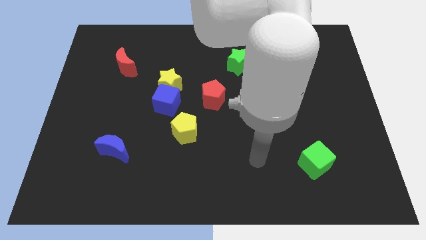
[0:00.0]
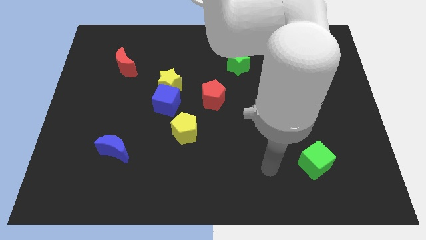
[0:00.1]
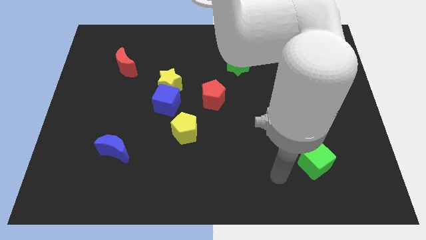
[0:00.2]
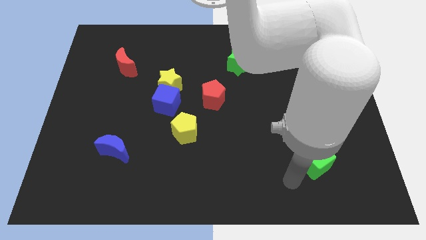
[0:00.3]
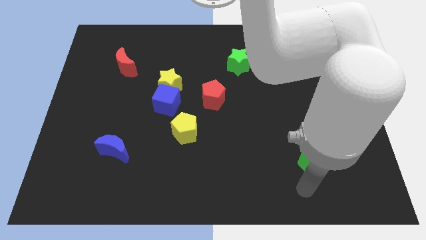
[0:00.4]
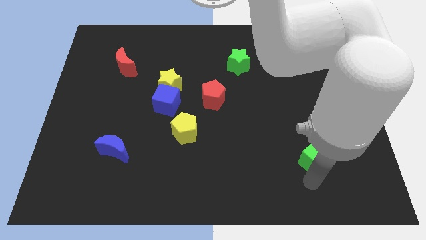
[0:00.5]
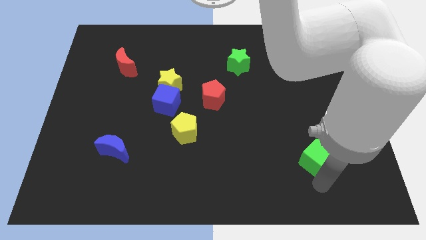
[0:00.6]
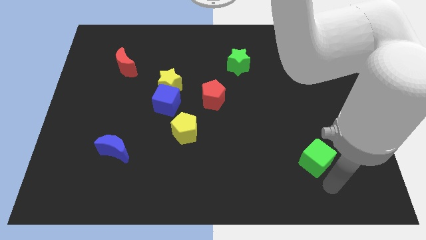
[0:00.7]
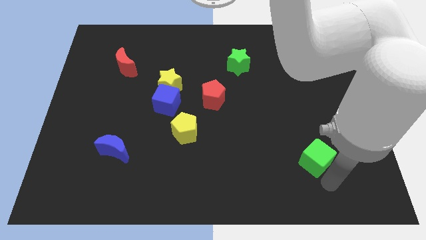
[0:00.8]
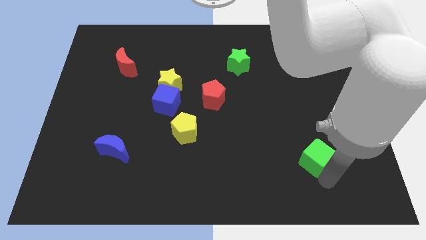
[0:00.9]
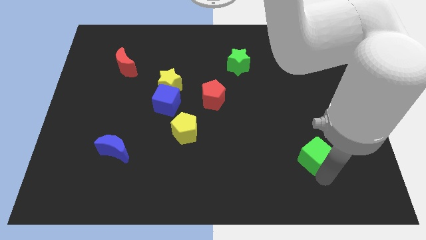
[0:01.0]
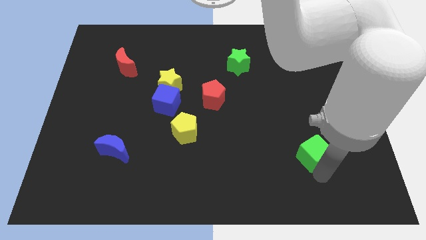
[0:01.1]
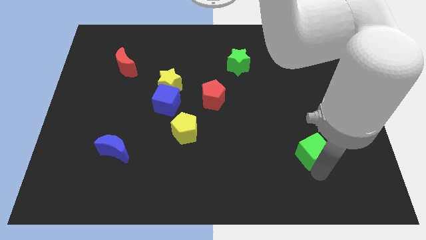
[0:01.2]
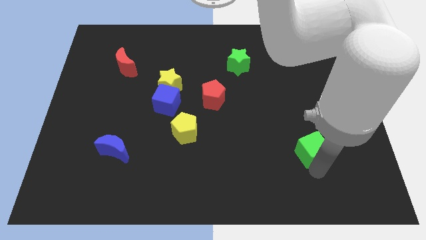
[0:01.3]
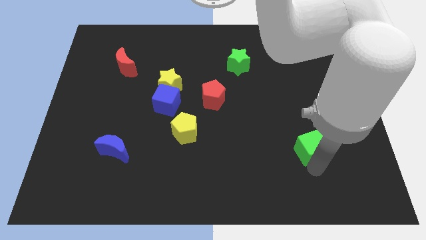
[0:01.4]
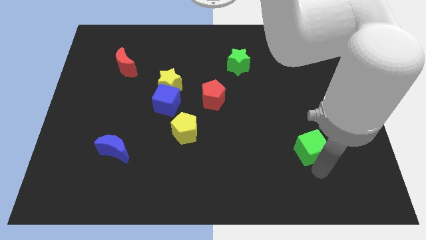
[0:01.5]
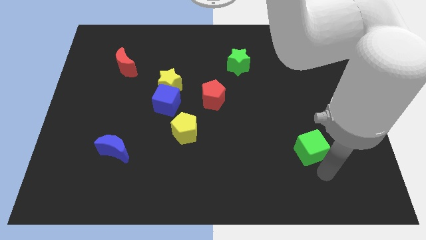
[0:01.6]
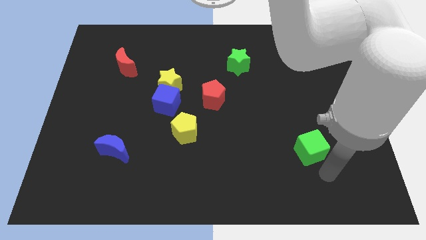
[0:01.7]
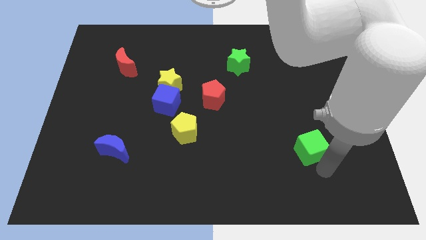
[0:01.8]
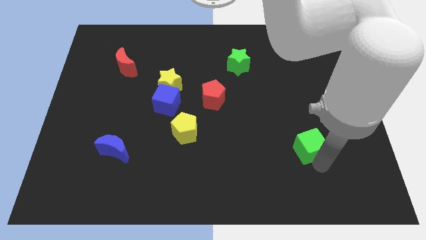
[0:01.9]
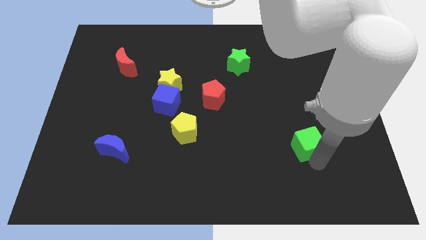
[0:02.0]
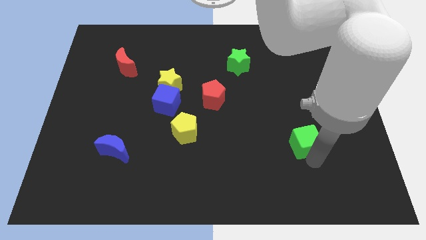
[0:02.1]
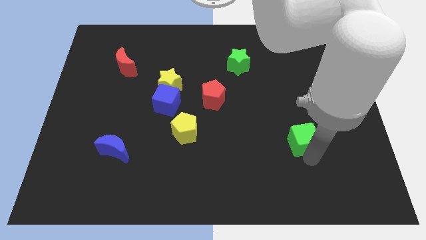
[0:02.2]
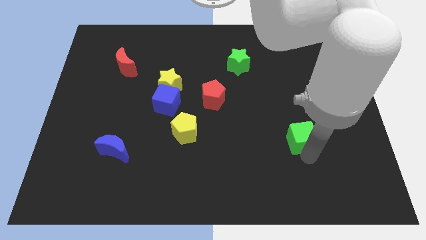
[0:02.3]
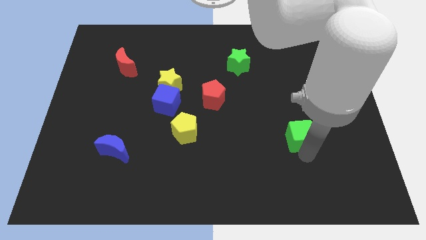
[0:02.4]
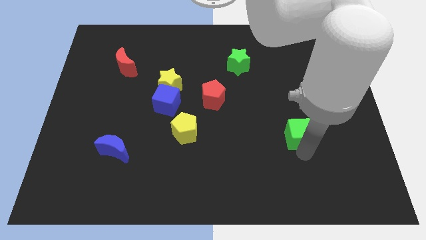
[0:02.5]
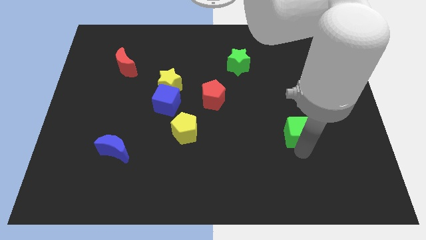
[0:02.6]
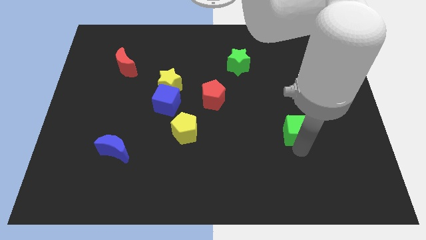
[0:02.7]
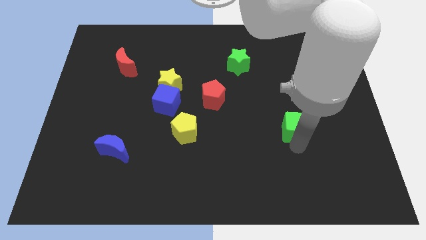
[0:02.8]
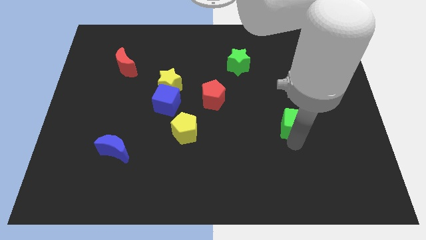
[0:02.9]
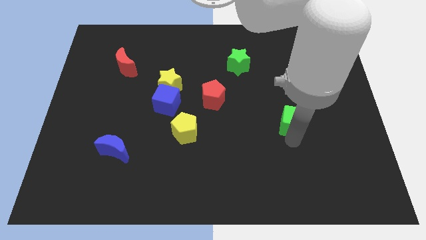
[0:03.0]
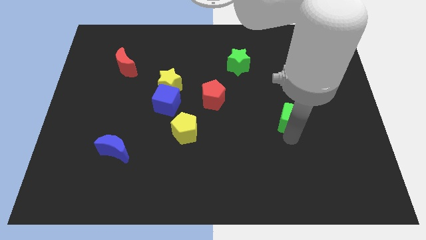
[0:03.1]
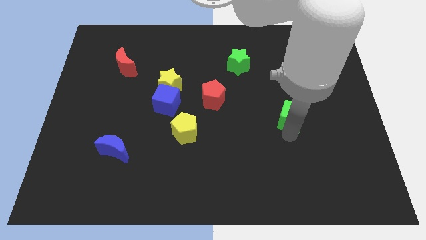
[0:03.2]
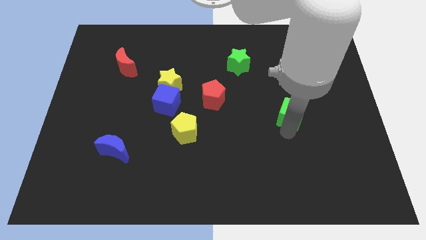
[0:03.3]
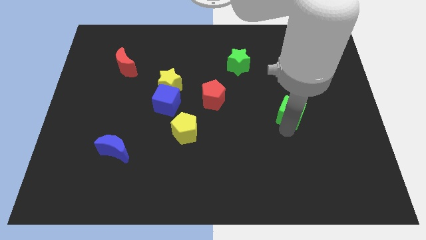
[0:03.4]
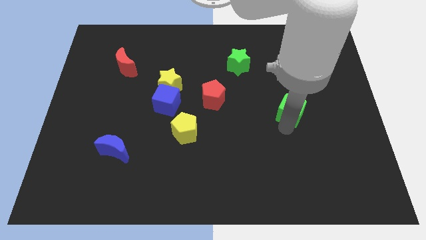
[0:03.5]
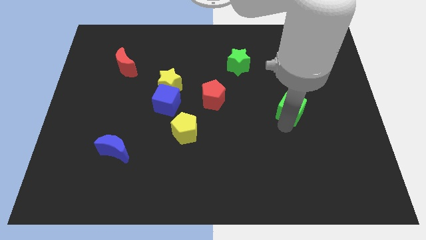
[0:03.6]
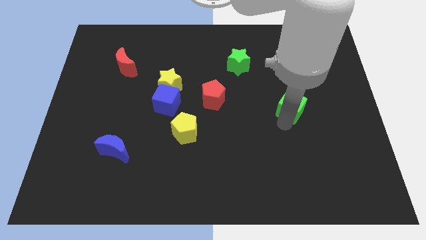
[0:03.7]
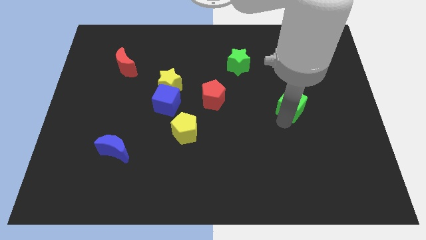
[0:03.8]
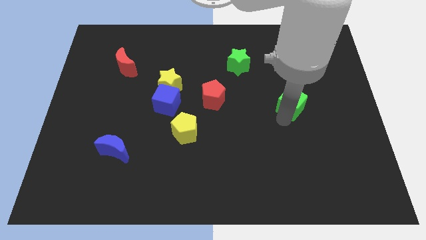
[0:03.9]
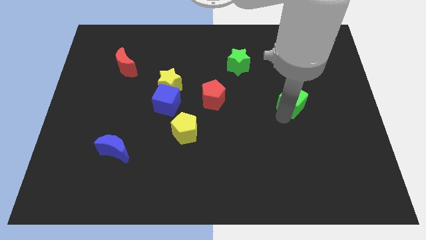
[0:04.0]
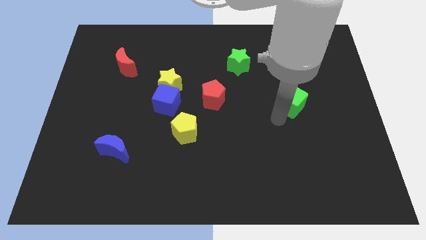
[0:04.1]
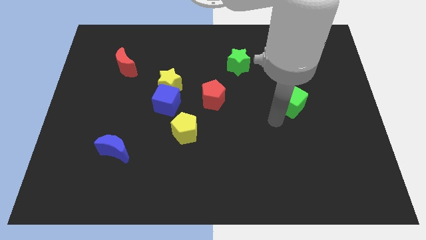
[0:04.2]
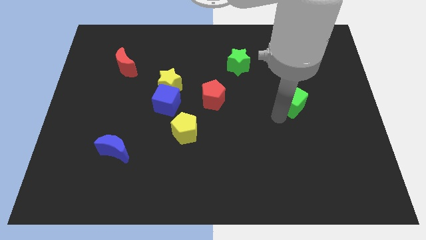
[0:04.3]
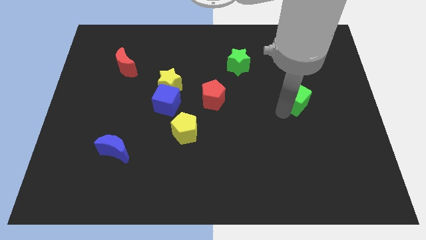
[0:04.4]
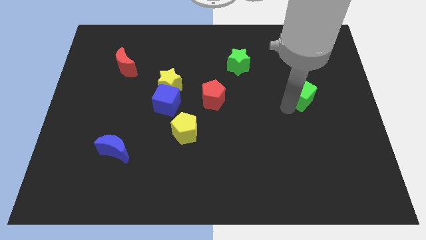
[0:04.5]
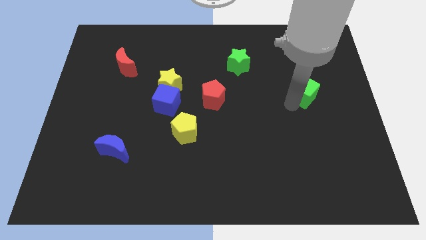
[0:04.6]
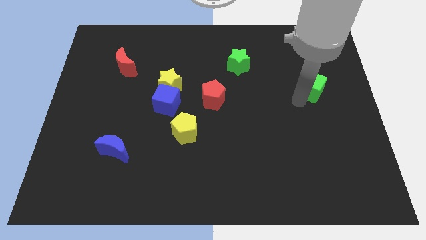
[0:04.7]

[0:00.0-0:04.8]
push the green cube up

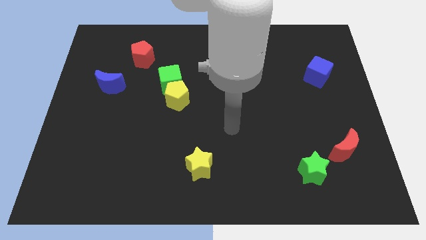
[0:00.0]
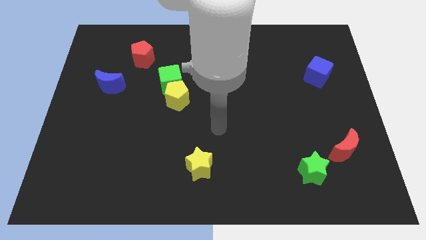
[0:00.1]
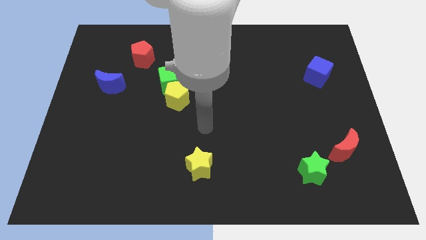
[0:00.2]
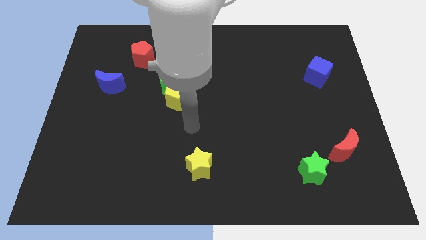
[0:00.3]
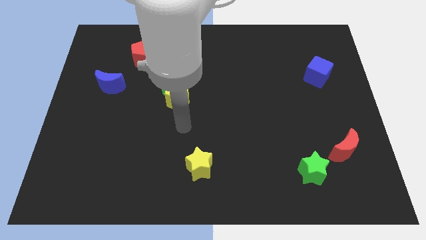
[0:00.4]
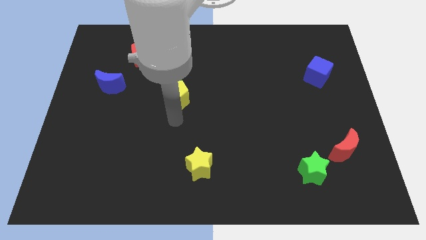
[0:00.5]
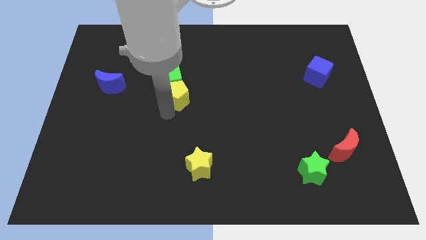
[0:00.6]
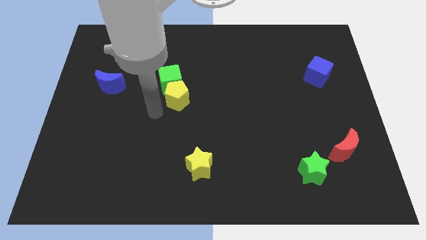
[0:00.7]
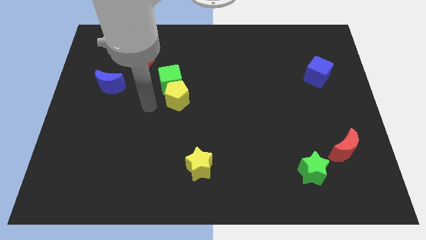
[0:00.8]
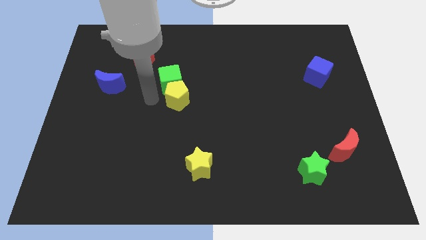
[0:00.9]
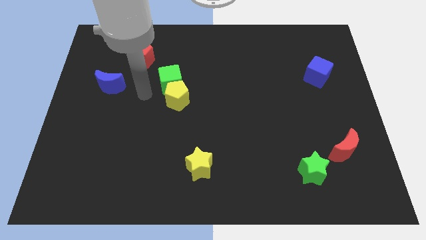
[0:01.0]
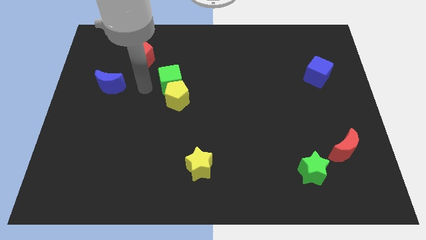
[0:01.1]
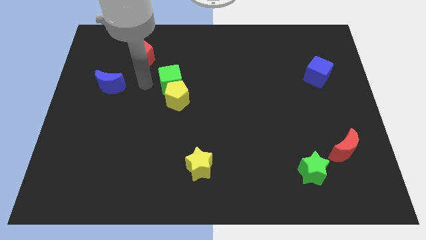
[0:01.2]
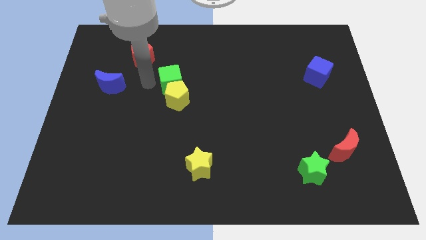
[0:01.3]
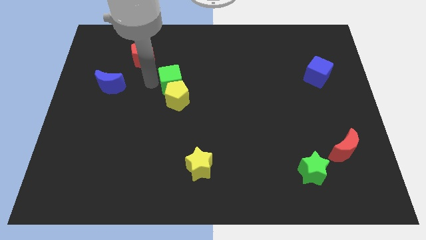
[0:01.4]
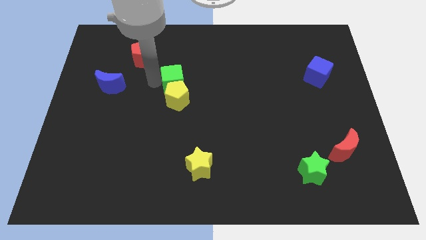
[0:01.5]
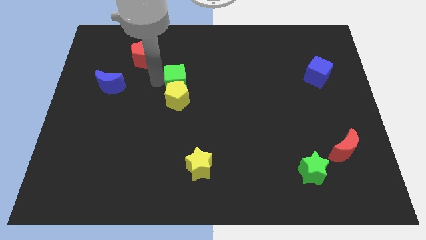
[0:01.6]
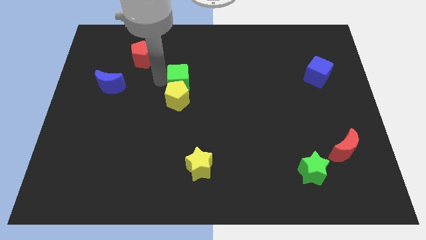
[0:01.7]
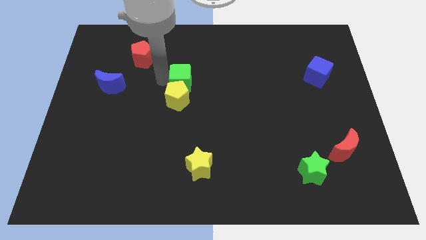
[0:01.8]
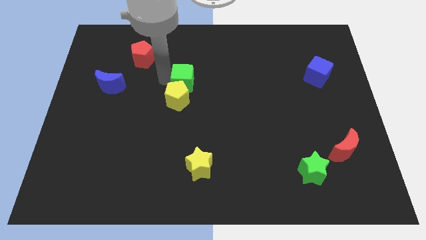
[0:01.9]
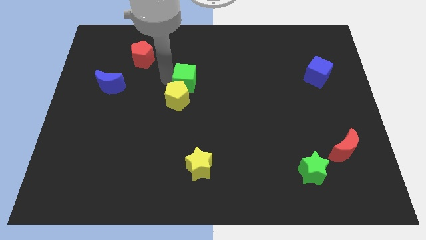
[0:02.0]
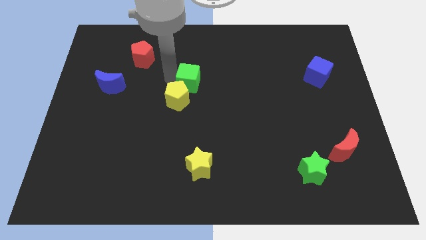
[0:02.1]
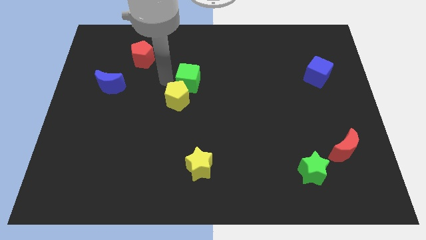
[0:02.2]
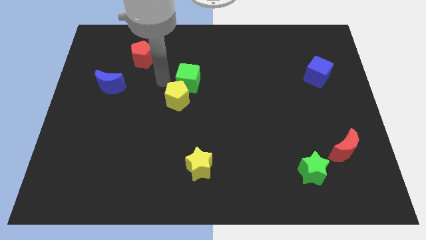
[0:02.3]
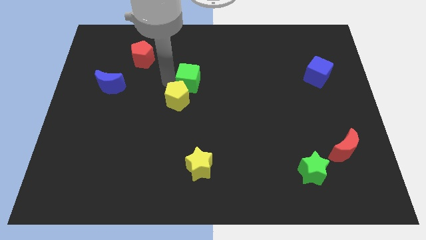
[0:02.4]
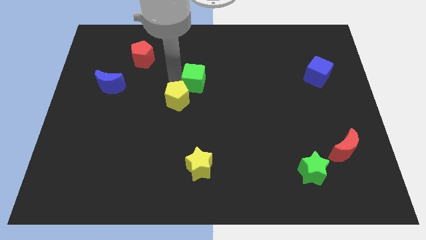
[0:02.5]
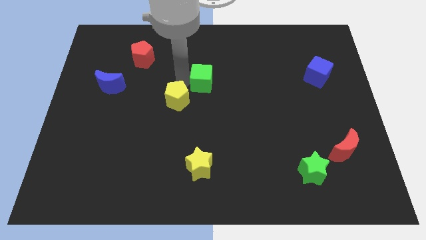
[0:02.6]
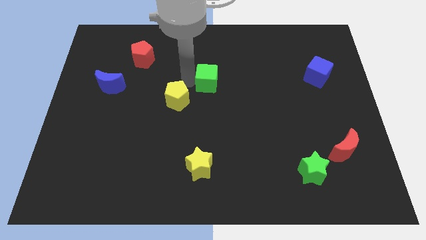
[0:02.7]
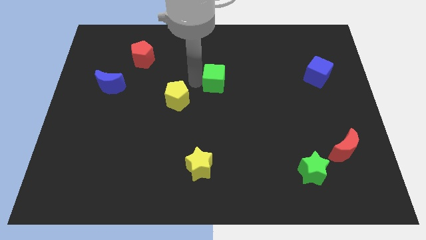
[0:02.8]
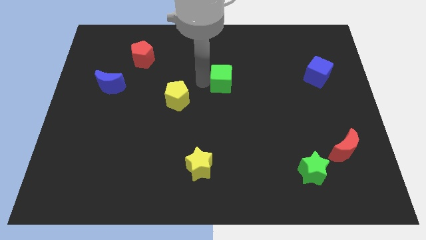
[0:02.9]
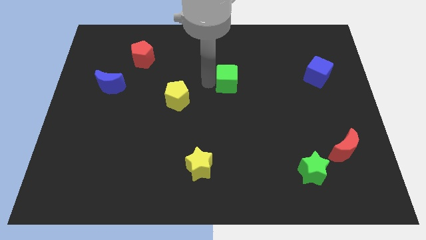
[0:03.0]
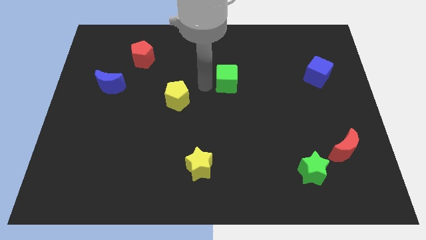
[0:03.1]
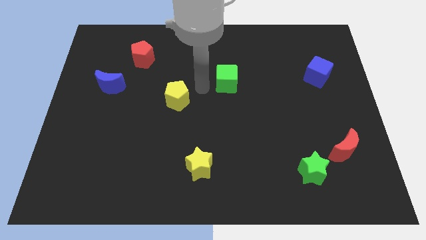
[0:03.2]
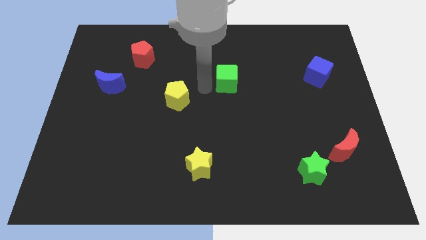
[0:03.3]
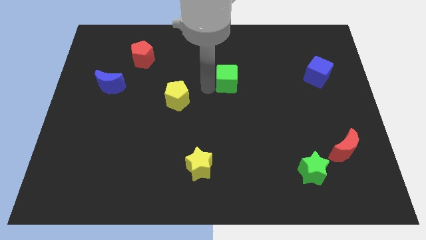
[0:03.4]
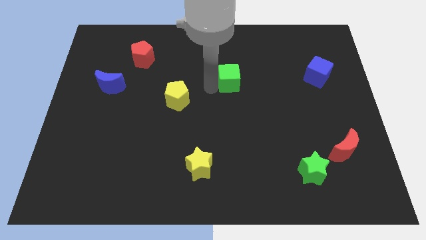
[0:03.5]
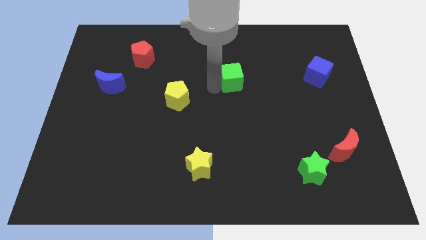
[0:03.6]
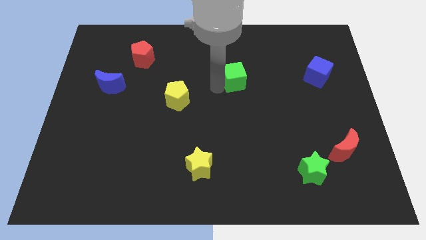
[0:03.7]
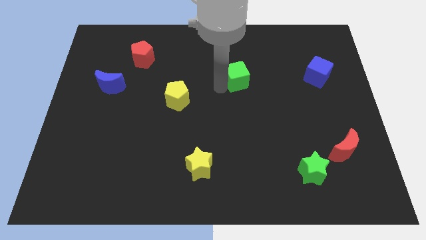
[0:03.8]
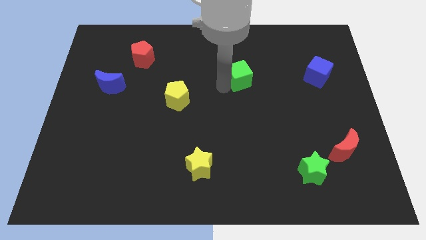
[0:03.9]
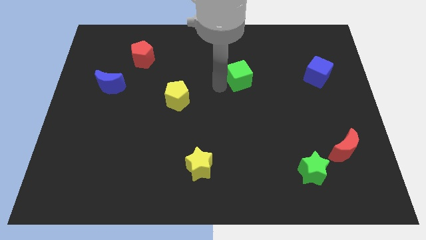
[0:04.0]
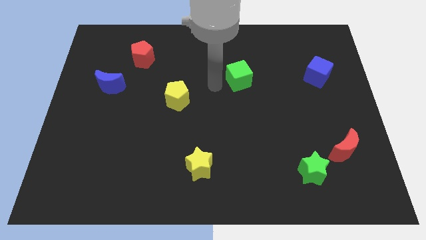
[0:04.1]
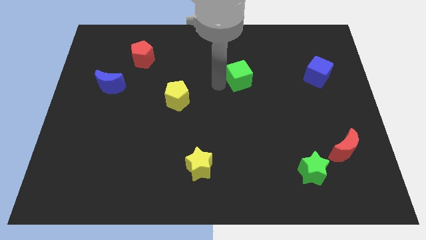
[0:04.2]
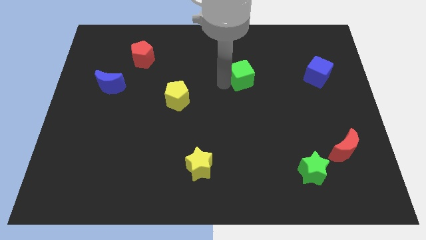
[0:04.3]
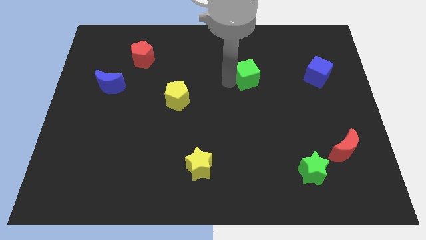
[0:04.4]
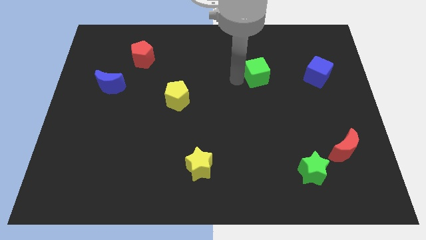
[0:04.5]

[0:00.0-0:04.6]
push the green cube right
